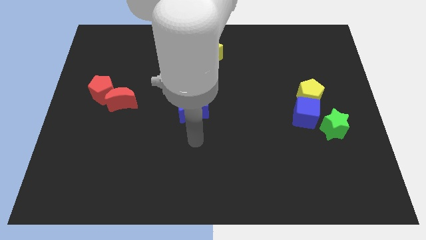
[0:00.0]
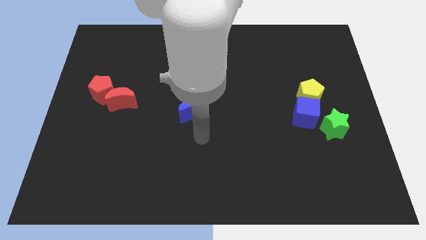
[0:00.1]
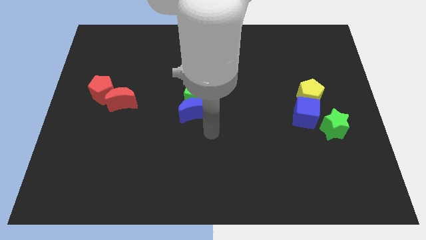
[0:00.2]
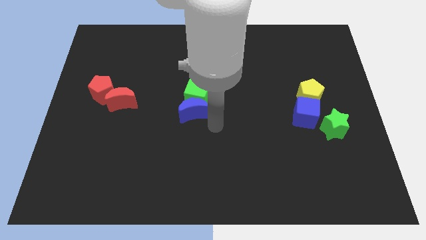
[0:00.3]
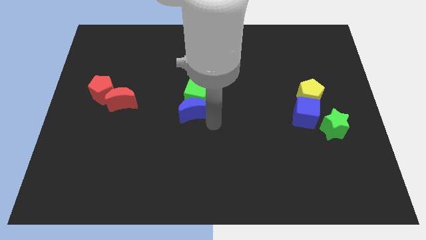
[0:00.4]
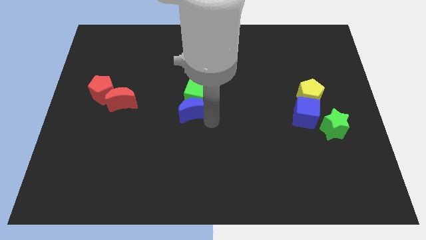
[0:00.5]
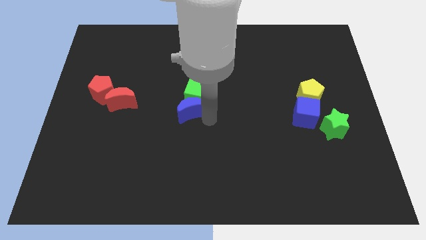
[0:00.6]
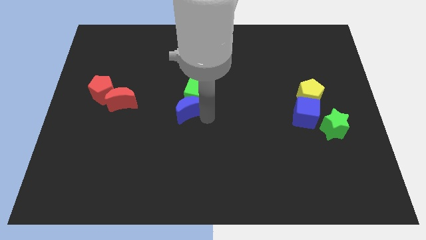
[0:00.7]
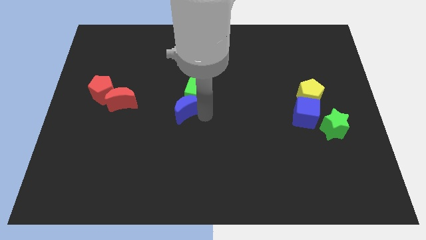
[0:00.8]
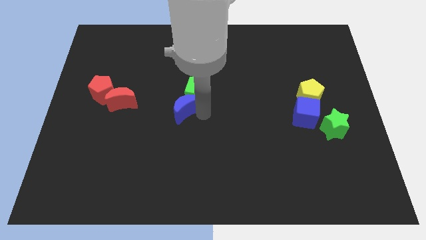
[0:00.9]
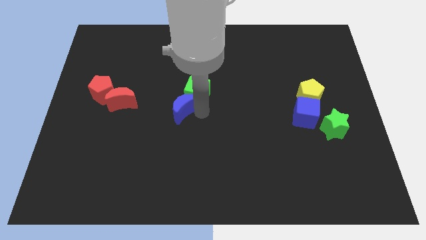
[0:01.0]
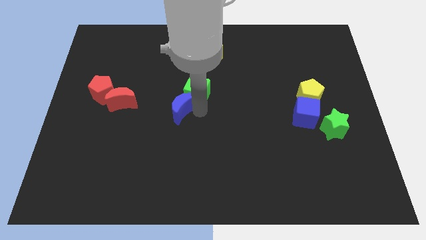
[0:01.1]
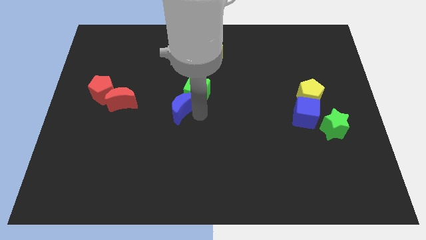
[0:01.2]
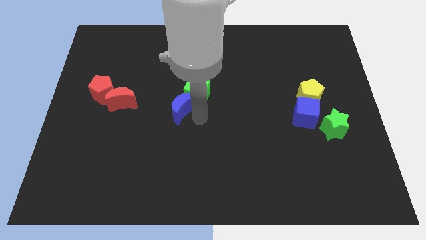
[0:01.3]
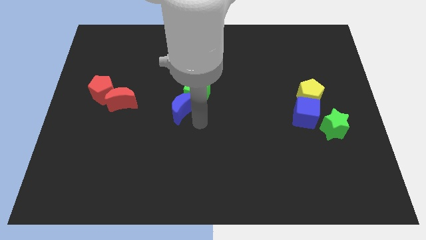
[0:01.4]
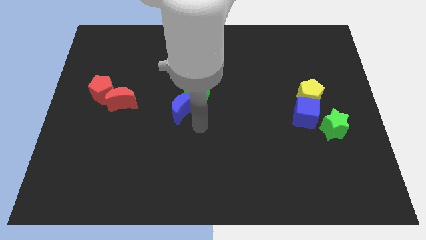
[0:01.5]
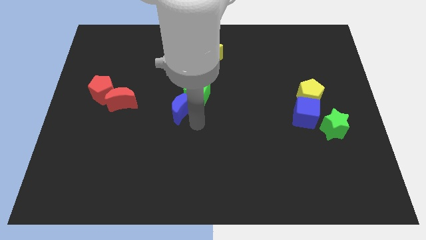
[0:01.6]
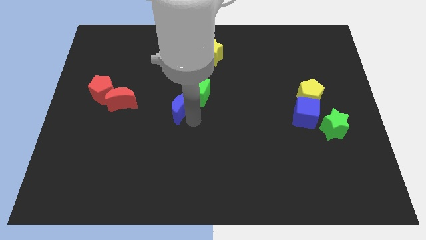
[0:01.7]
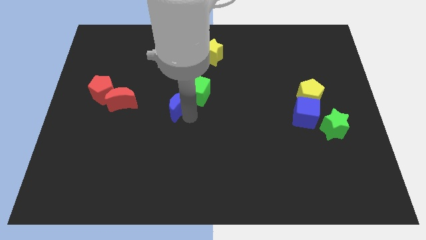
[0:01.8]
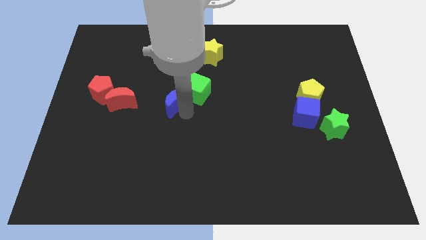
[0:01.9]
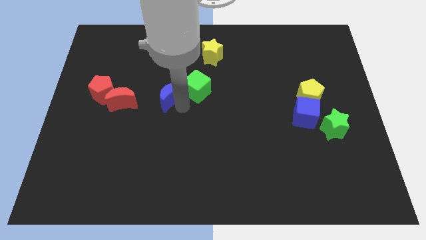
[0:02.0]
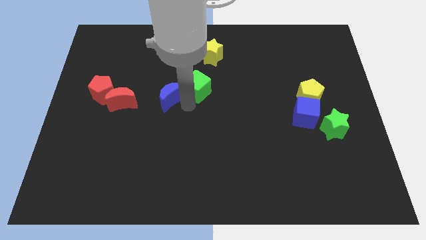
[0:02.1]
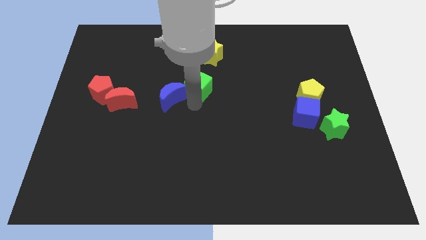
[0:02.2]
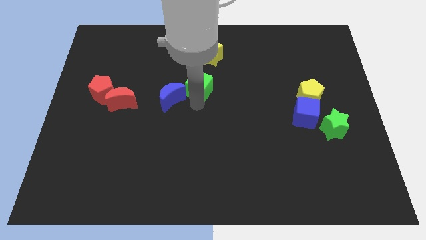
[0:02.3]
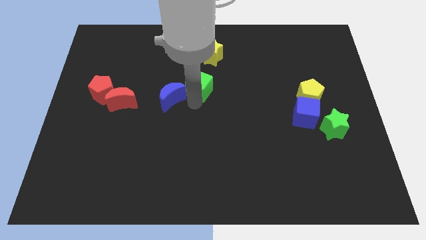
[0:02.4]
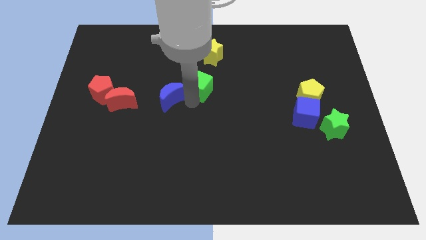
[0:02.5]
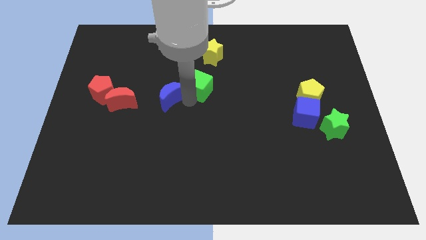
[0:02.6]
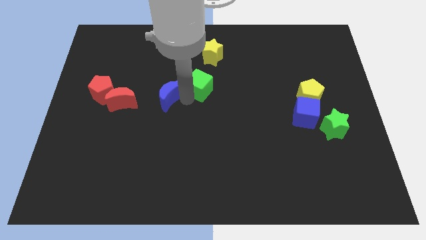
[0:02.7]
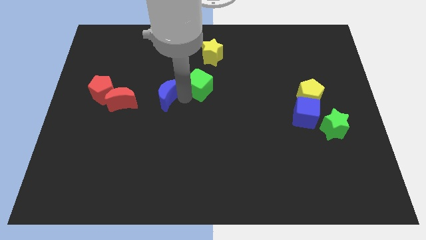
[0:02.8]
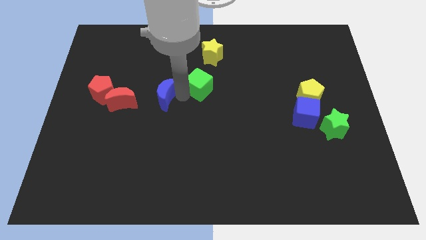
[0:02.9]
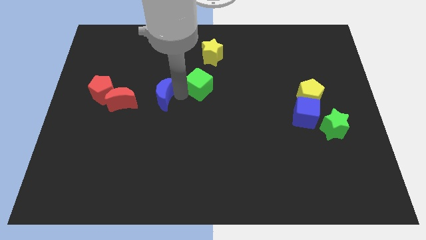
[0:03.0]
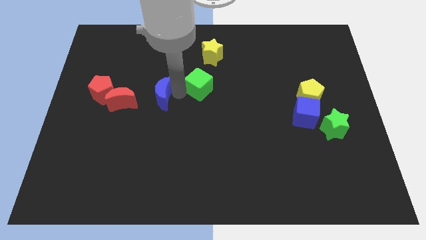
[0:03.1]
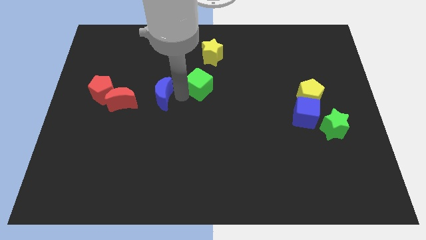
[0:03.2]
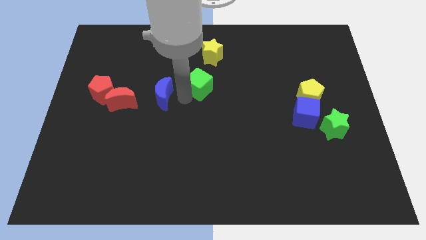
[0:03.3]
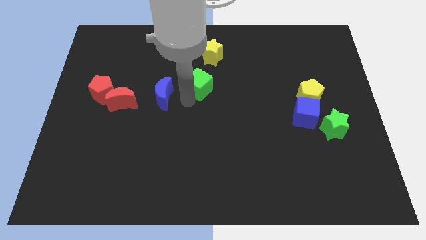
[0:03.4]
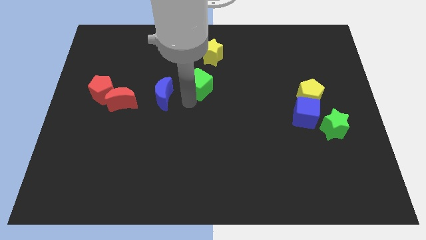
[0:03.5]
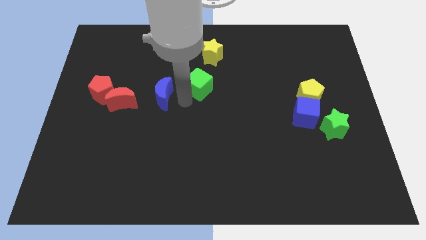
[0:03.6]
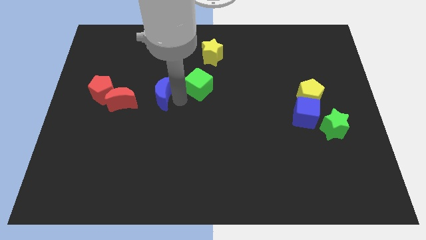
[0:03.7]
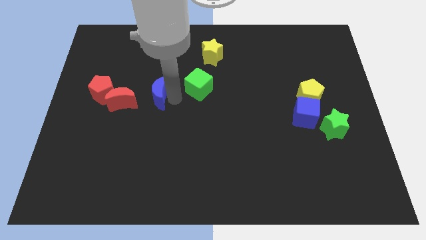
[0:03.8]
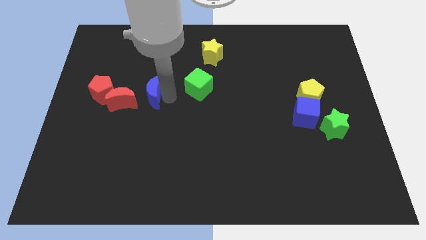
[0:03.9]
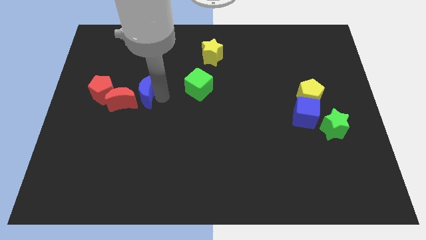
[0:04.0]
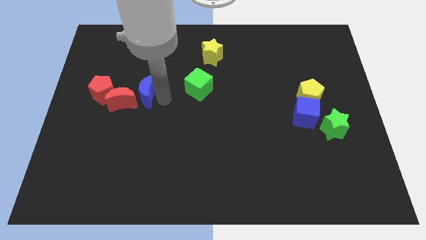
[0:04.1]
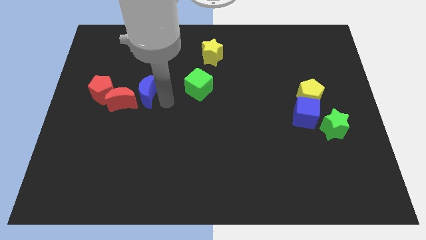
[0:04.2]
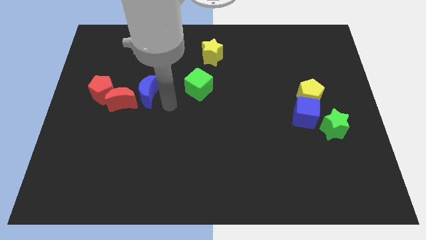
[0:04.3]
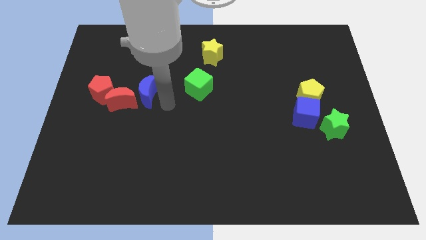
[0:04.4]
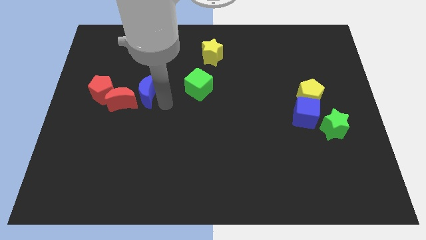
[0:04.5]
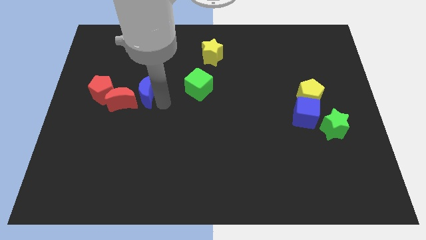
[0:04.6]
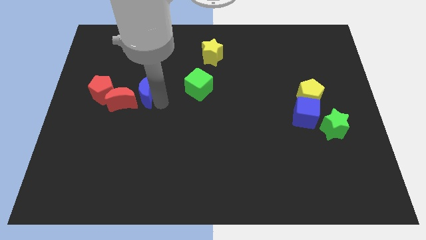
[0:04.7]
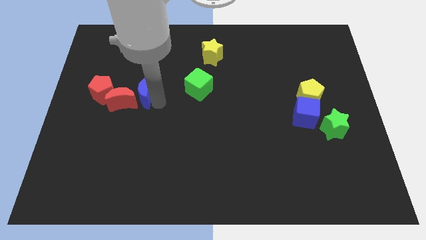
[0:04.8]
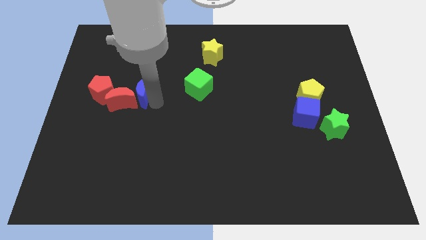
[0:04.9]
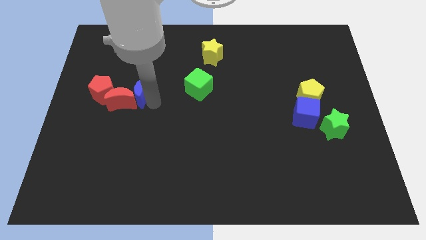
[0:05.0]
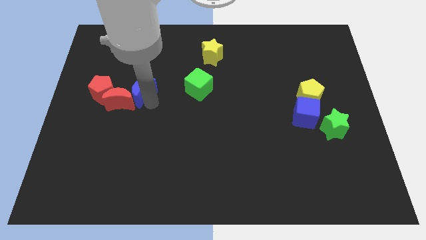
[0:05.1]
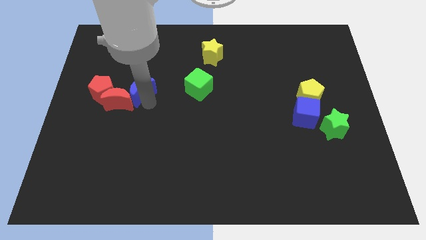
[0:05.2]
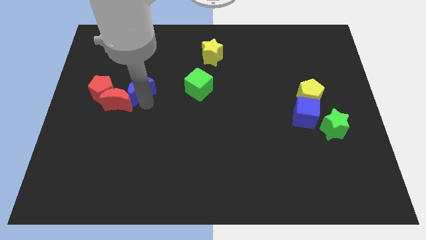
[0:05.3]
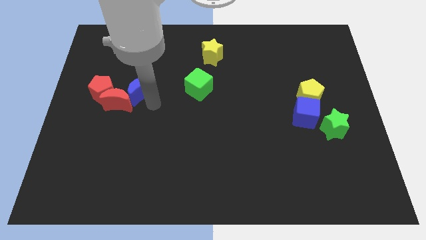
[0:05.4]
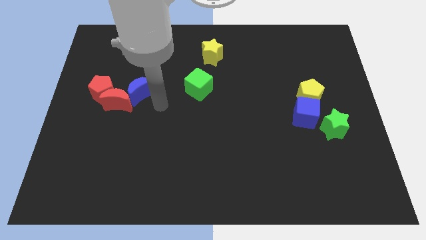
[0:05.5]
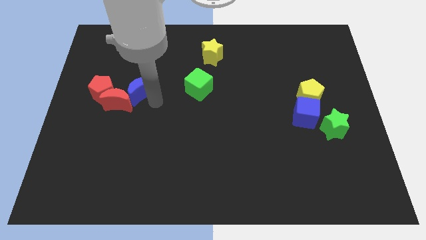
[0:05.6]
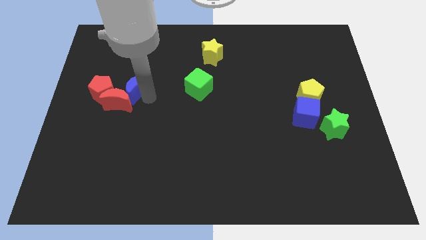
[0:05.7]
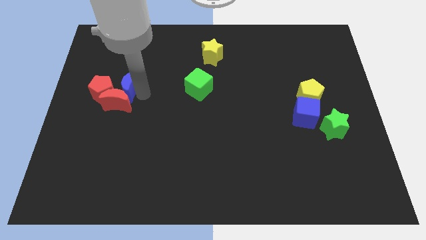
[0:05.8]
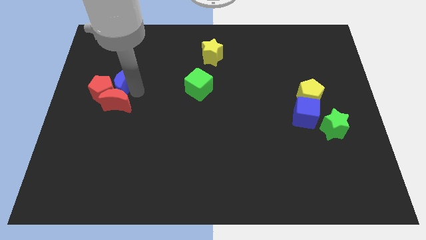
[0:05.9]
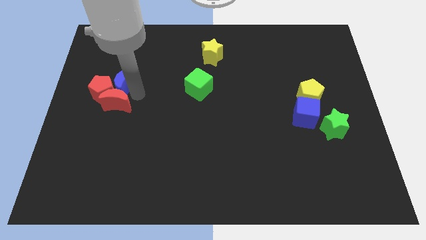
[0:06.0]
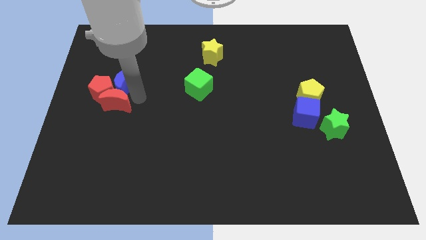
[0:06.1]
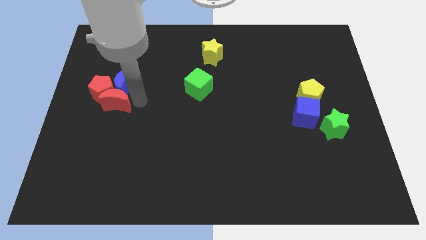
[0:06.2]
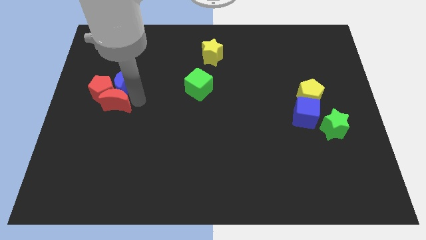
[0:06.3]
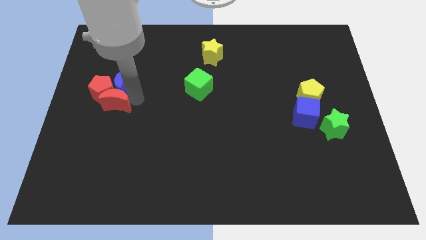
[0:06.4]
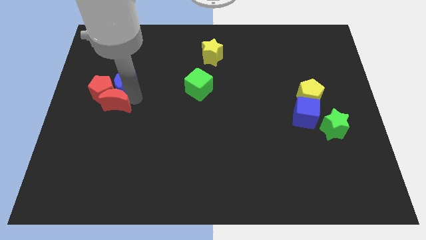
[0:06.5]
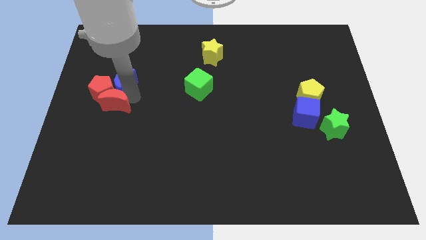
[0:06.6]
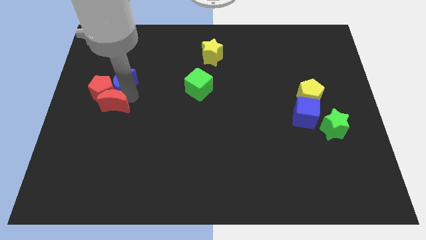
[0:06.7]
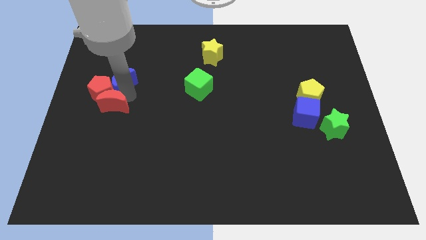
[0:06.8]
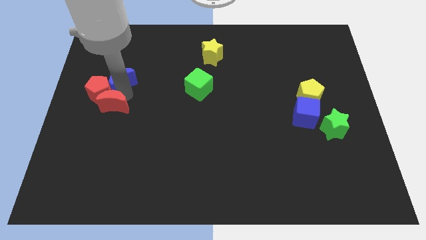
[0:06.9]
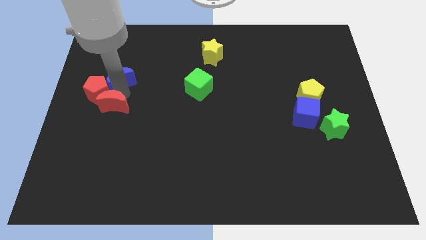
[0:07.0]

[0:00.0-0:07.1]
move the blue moon above the red pentagon
